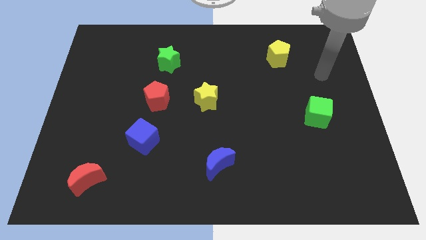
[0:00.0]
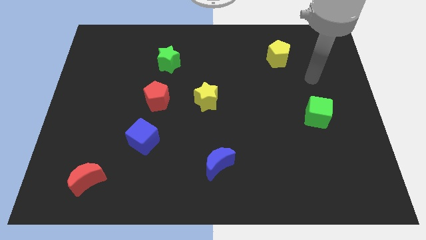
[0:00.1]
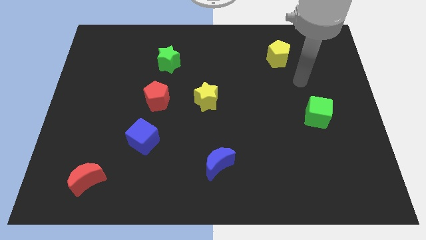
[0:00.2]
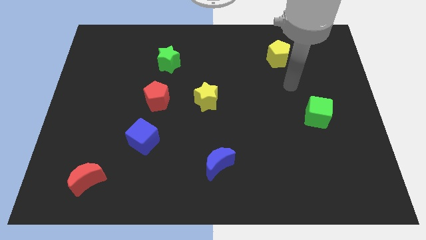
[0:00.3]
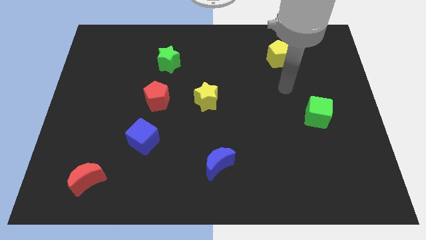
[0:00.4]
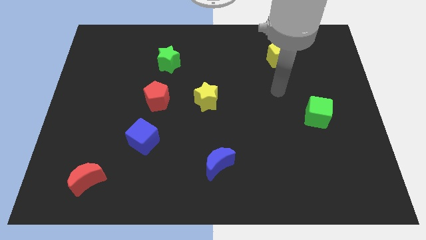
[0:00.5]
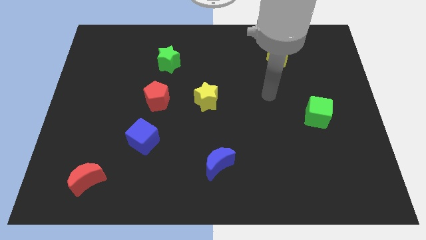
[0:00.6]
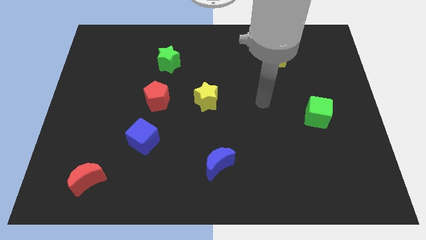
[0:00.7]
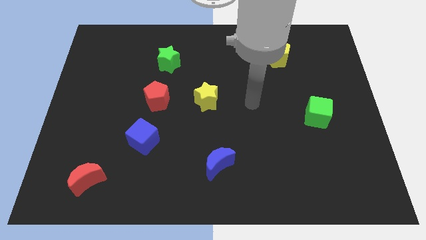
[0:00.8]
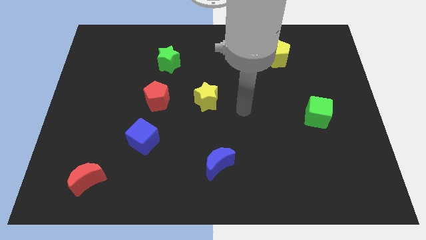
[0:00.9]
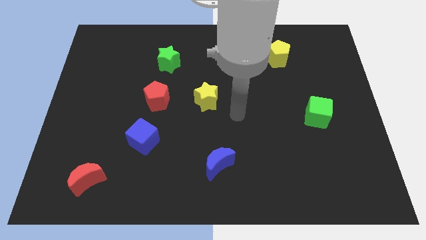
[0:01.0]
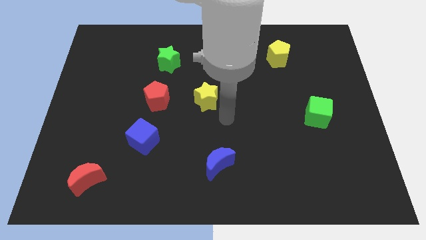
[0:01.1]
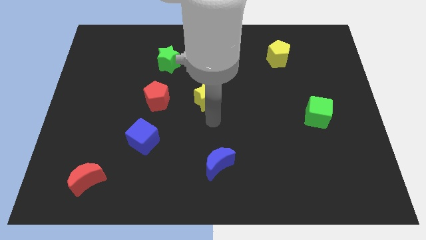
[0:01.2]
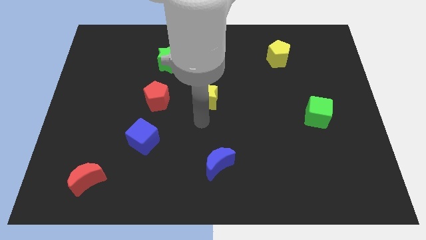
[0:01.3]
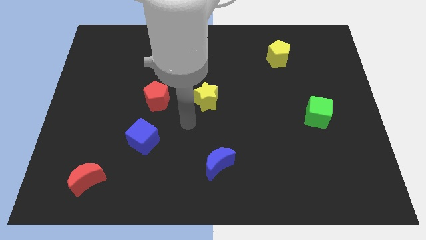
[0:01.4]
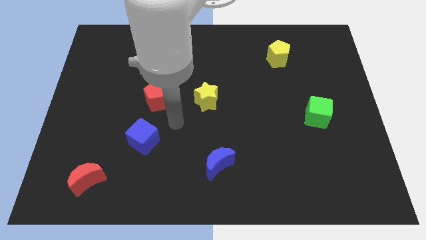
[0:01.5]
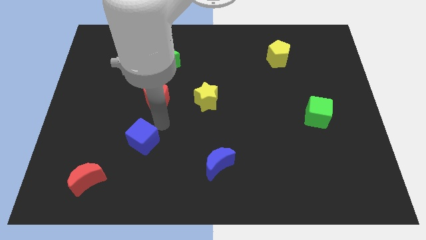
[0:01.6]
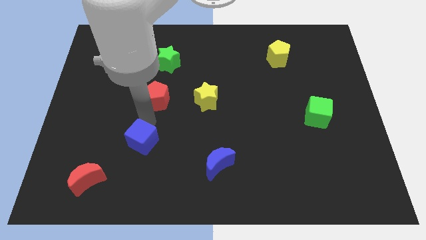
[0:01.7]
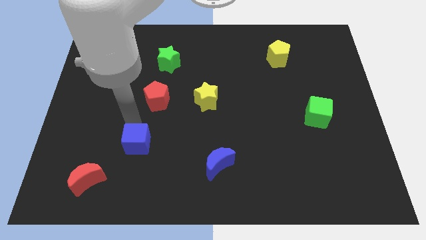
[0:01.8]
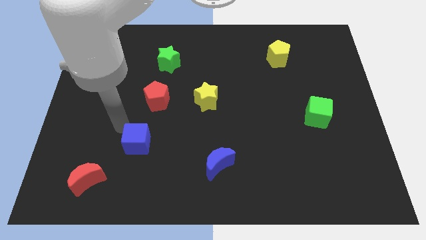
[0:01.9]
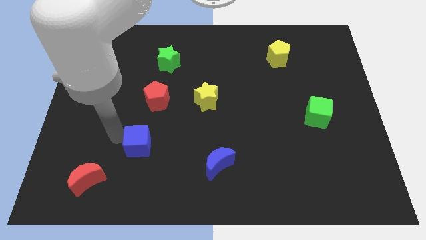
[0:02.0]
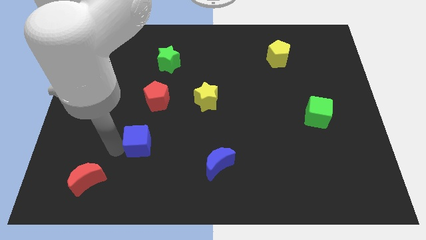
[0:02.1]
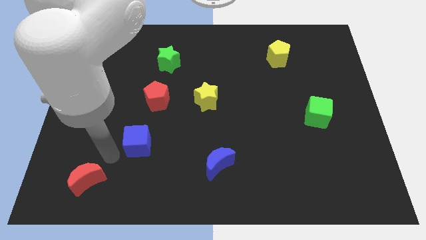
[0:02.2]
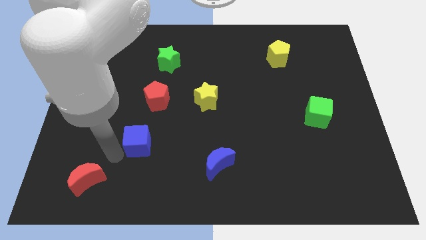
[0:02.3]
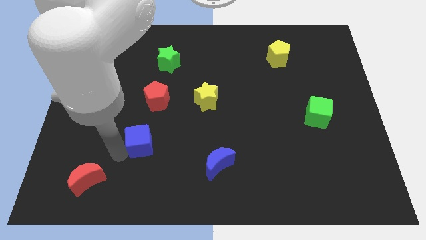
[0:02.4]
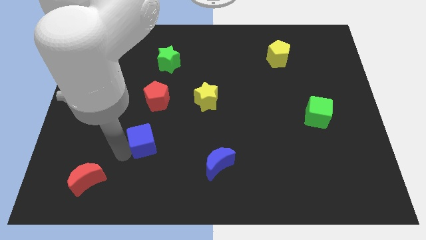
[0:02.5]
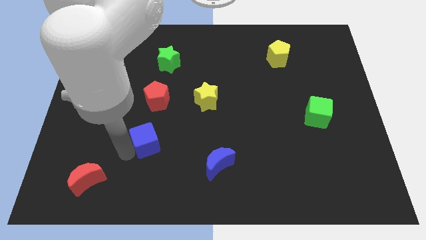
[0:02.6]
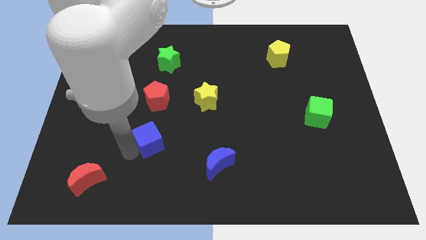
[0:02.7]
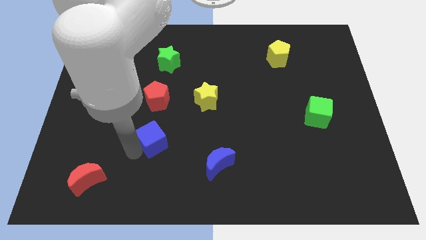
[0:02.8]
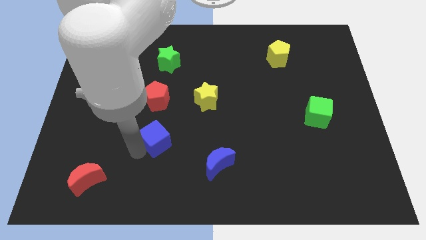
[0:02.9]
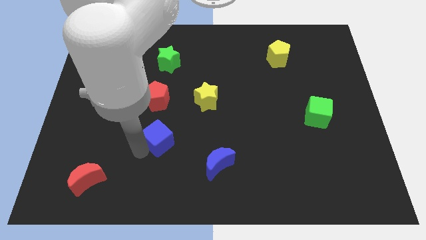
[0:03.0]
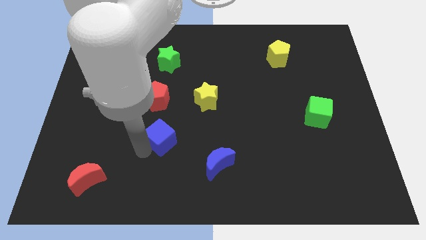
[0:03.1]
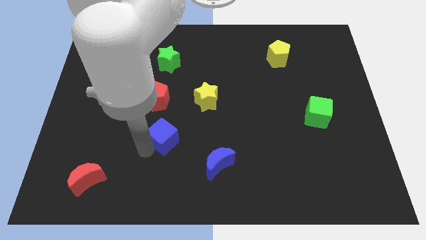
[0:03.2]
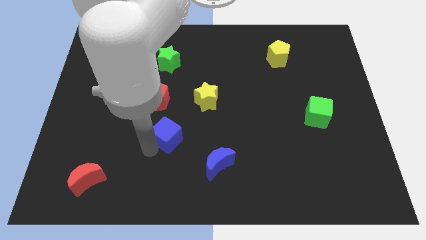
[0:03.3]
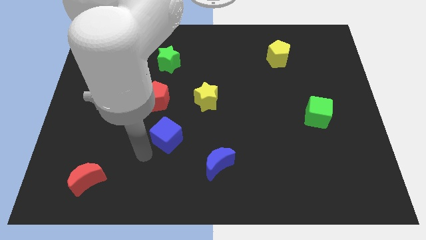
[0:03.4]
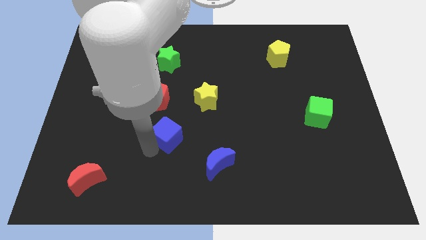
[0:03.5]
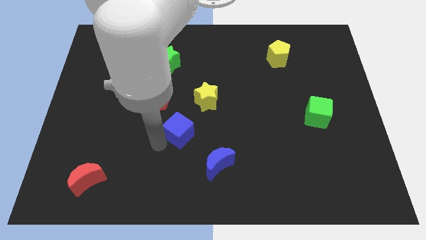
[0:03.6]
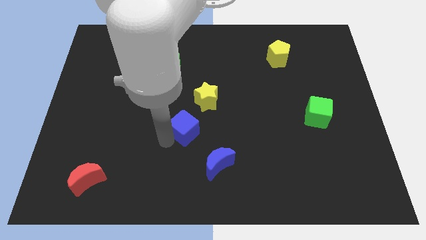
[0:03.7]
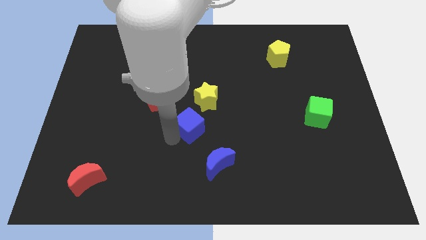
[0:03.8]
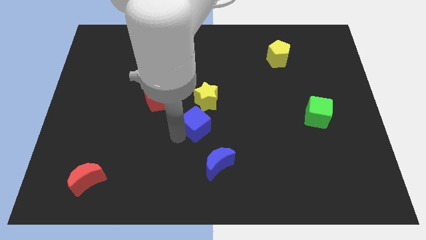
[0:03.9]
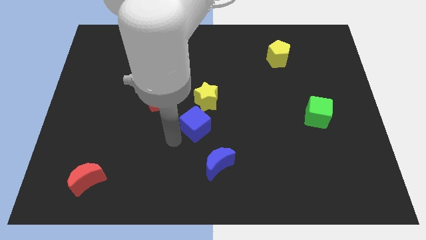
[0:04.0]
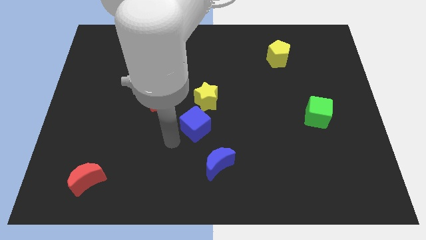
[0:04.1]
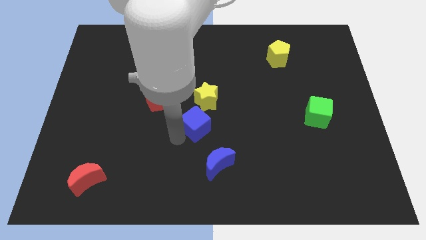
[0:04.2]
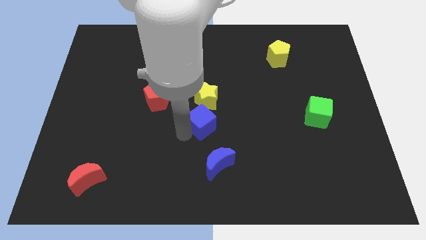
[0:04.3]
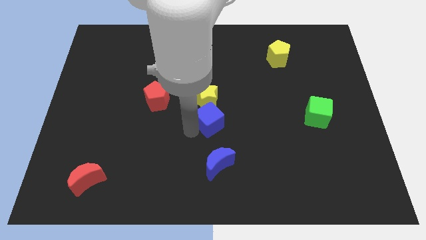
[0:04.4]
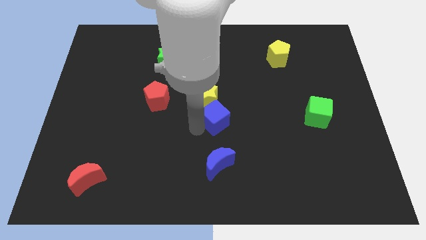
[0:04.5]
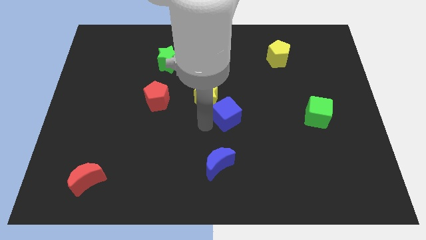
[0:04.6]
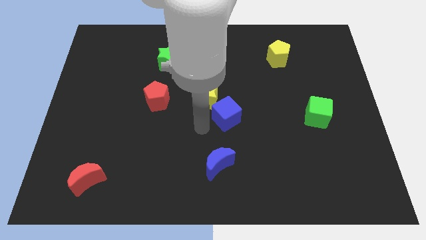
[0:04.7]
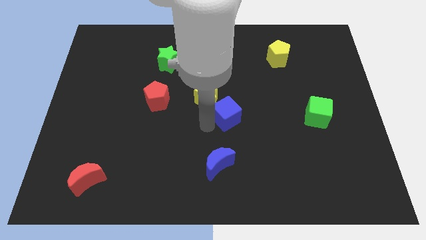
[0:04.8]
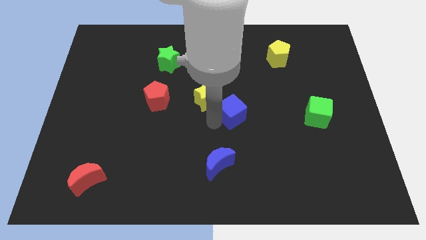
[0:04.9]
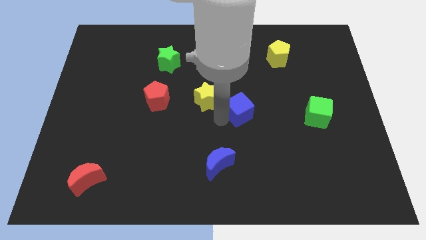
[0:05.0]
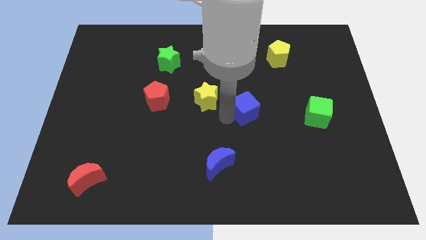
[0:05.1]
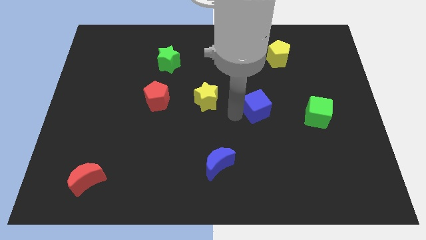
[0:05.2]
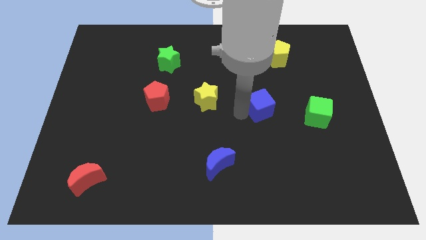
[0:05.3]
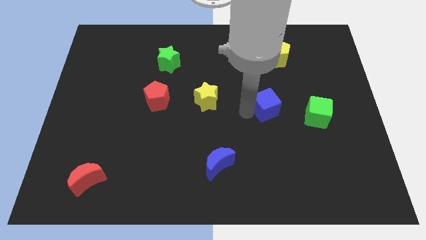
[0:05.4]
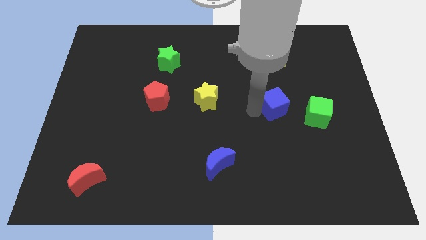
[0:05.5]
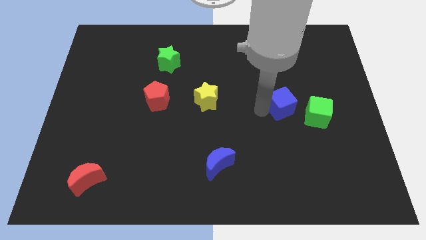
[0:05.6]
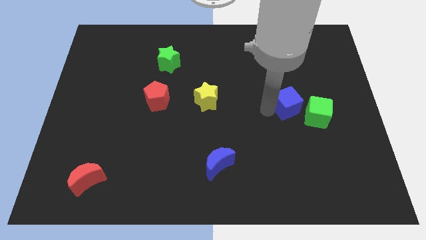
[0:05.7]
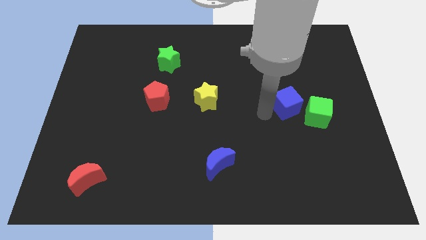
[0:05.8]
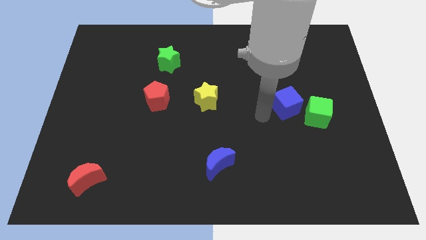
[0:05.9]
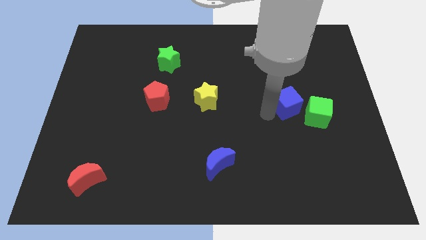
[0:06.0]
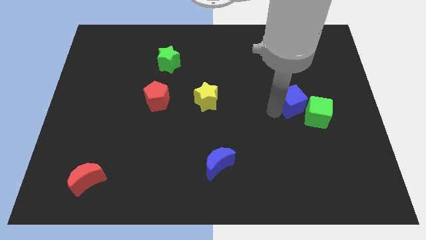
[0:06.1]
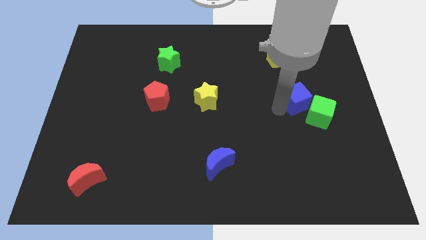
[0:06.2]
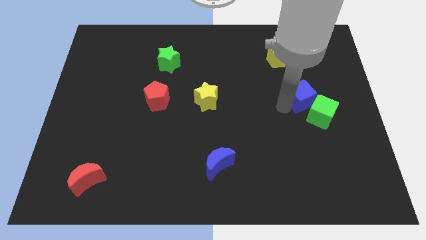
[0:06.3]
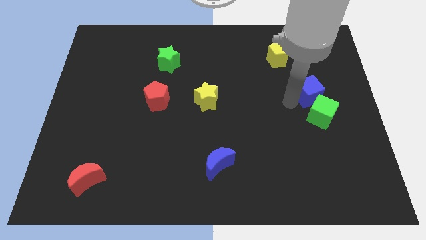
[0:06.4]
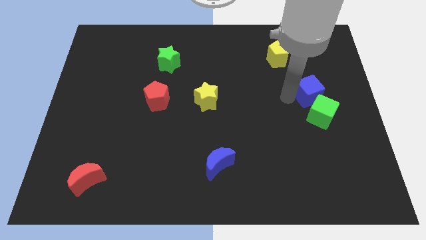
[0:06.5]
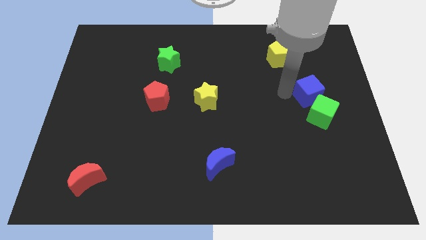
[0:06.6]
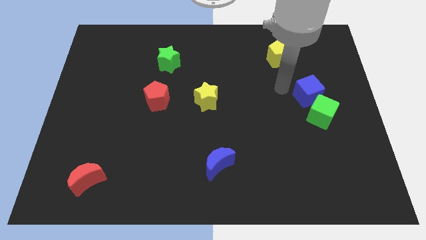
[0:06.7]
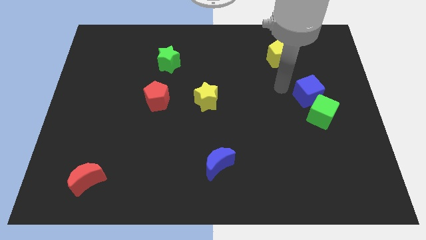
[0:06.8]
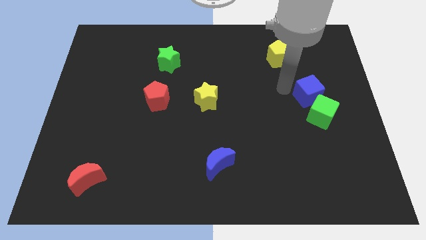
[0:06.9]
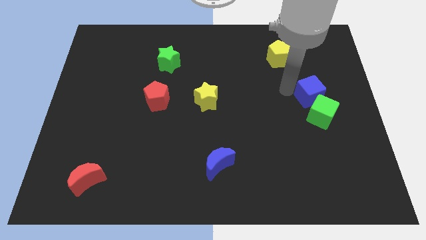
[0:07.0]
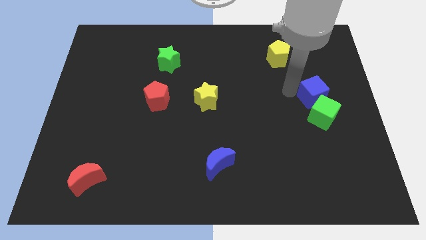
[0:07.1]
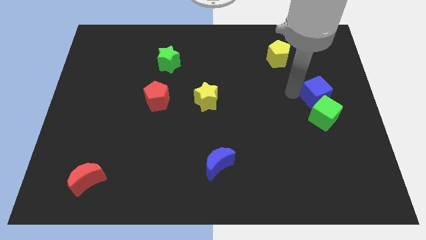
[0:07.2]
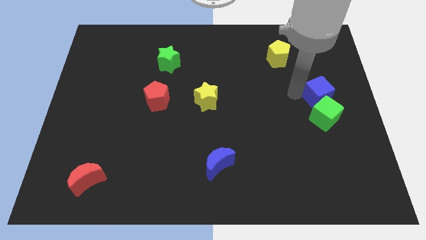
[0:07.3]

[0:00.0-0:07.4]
move the blue cube to the right side
